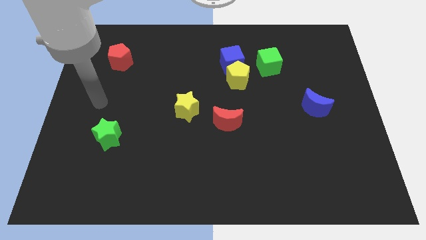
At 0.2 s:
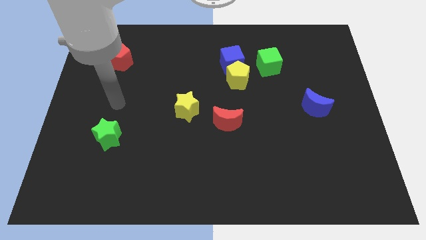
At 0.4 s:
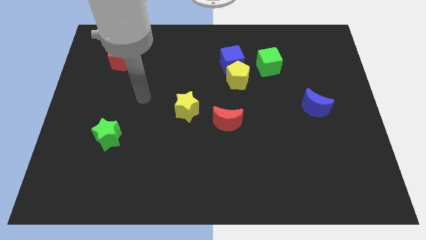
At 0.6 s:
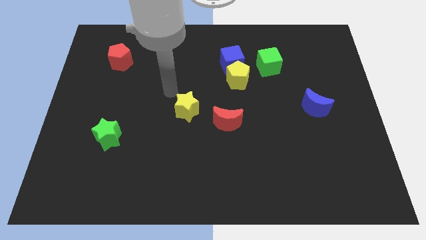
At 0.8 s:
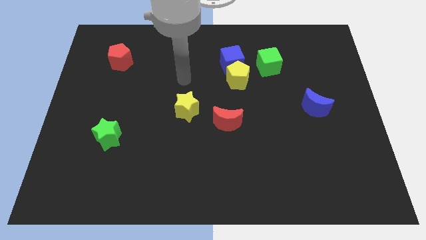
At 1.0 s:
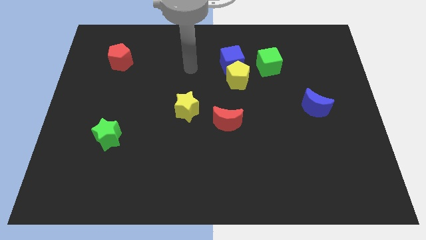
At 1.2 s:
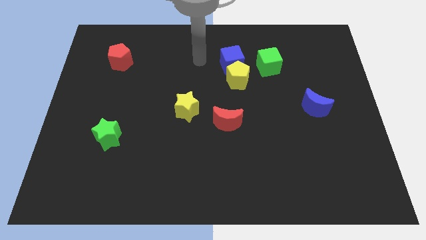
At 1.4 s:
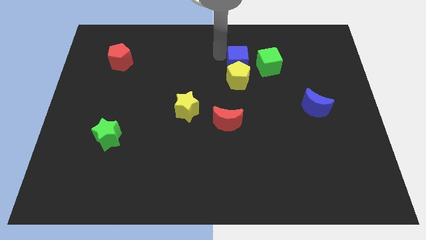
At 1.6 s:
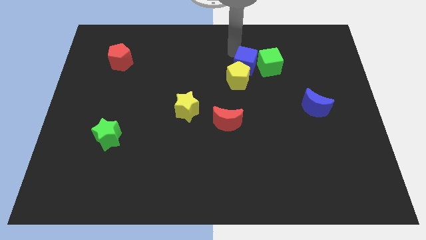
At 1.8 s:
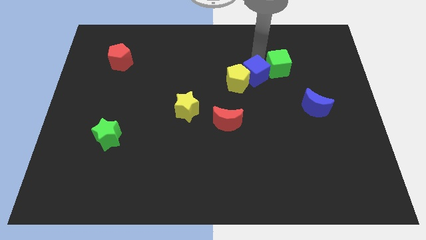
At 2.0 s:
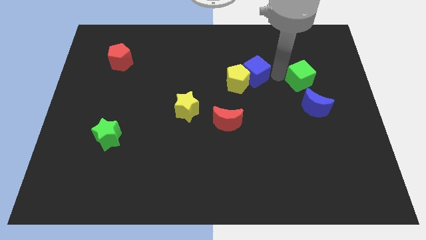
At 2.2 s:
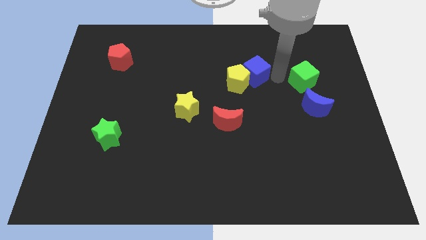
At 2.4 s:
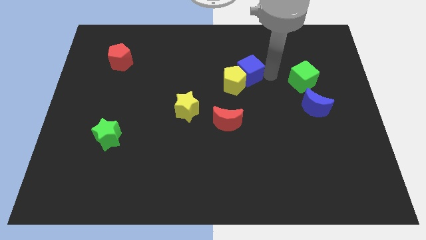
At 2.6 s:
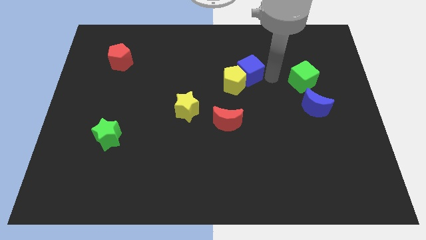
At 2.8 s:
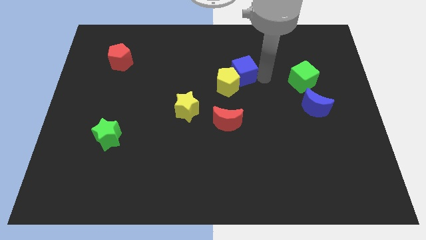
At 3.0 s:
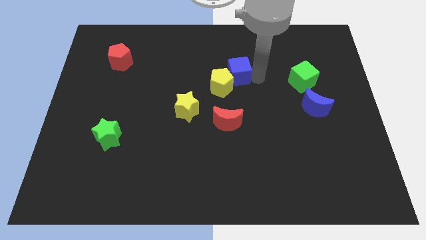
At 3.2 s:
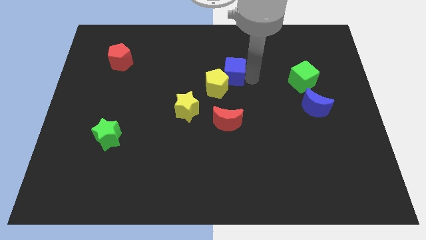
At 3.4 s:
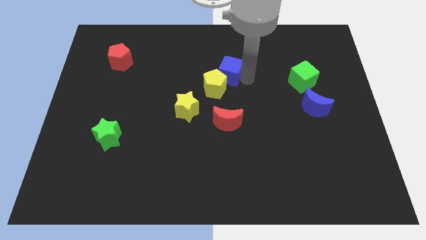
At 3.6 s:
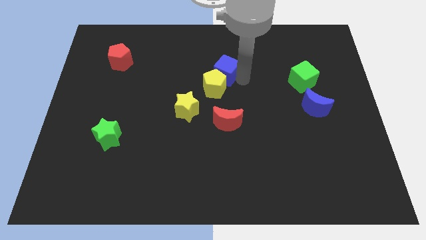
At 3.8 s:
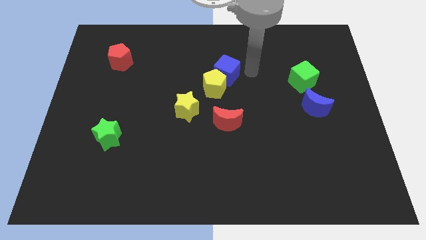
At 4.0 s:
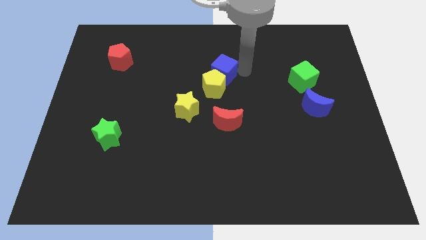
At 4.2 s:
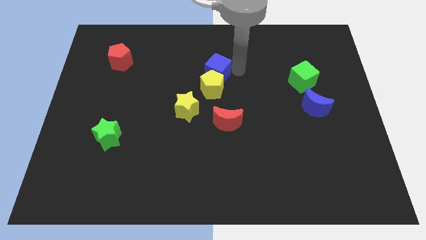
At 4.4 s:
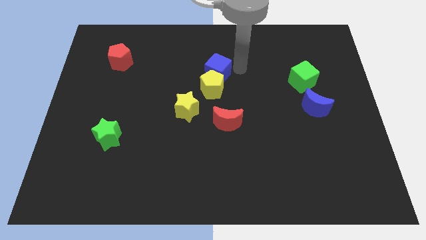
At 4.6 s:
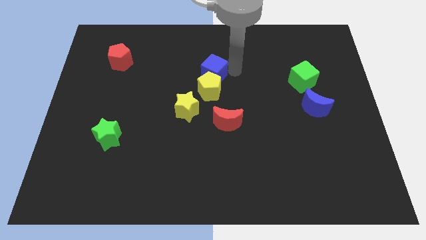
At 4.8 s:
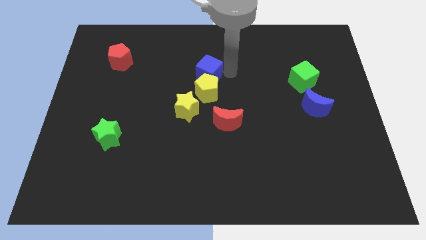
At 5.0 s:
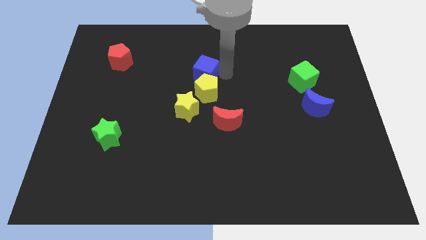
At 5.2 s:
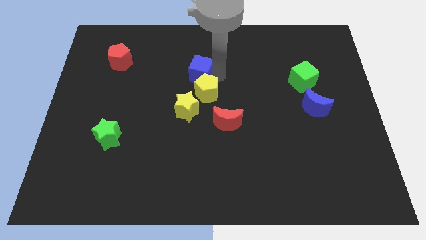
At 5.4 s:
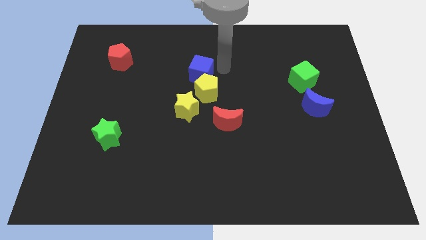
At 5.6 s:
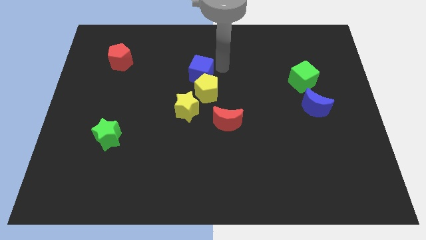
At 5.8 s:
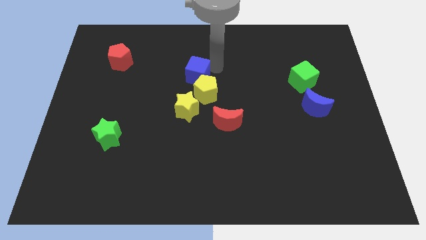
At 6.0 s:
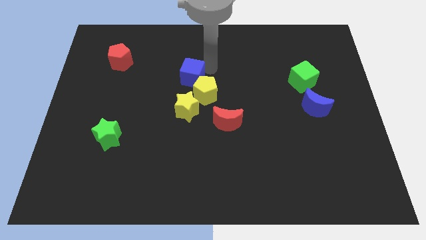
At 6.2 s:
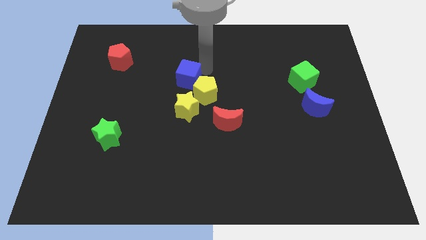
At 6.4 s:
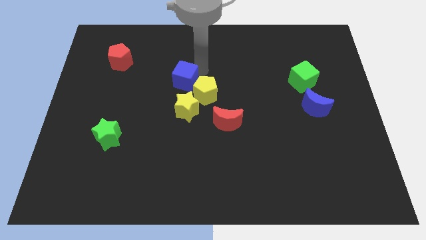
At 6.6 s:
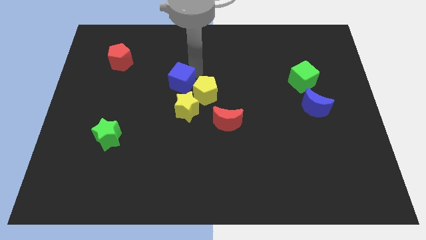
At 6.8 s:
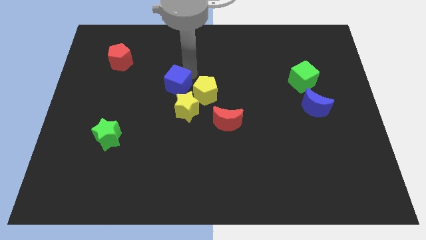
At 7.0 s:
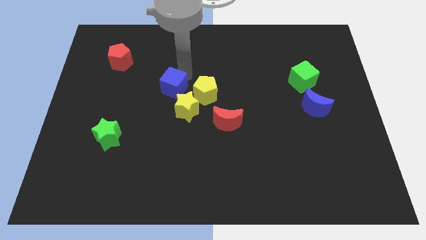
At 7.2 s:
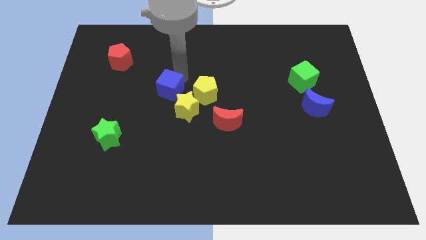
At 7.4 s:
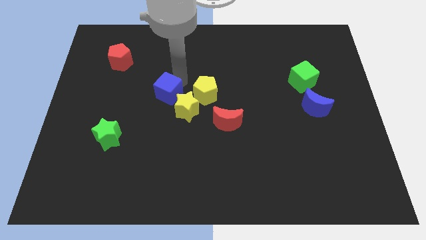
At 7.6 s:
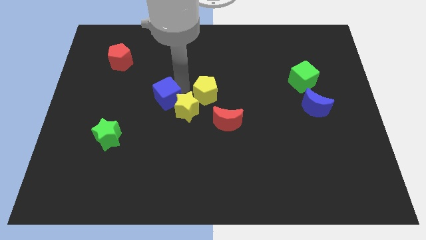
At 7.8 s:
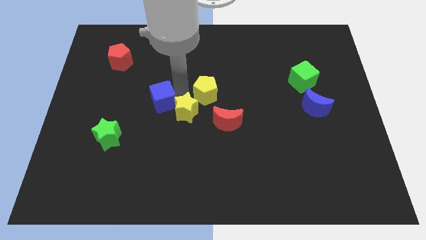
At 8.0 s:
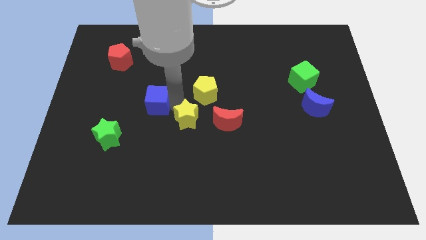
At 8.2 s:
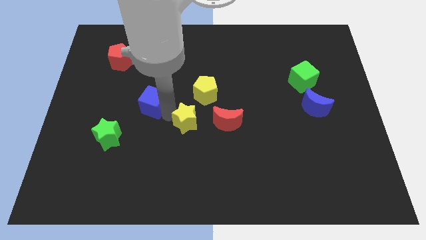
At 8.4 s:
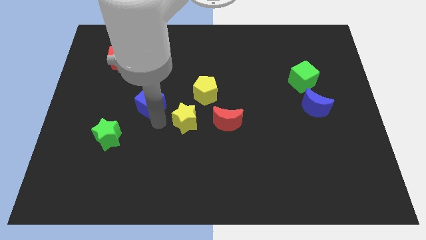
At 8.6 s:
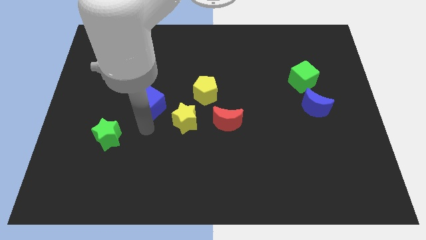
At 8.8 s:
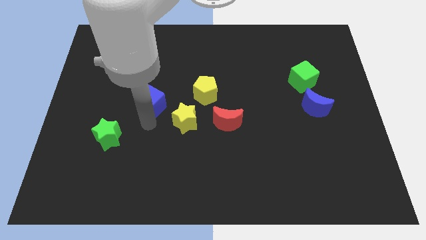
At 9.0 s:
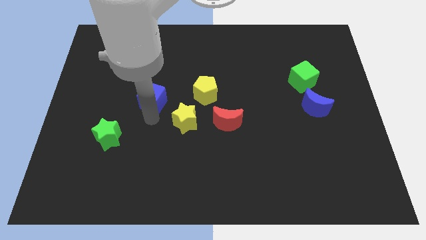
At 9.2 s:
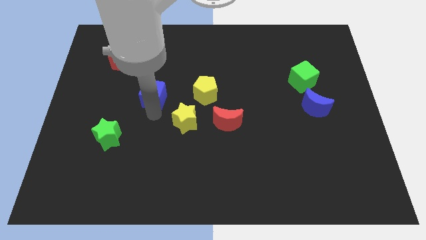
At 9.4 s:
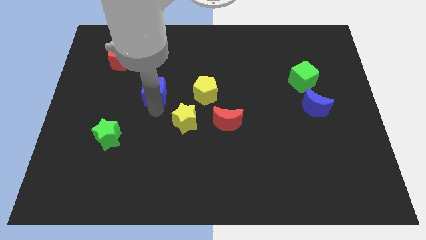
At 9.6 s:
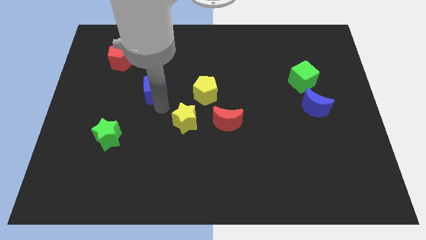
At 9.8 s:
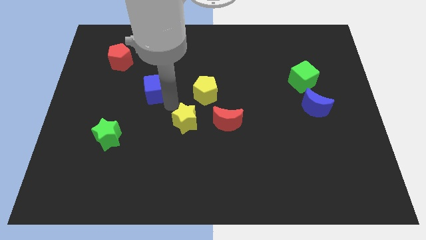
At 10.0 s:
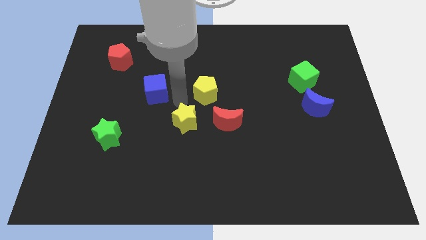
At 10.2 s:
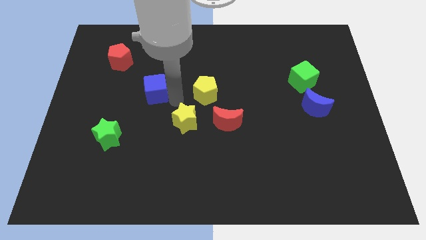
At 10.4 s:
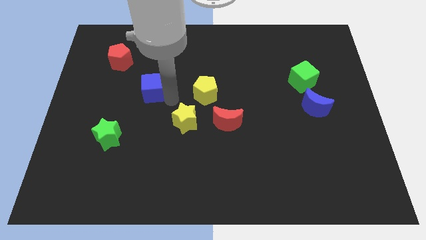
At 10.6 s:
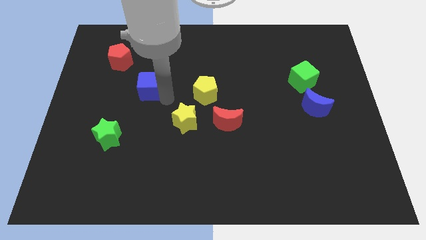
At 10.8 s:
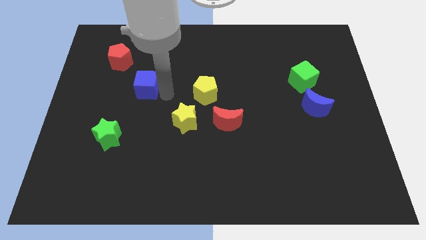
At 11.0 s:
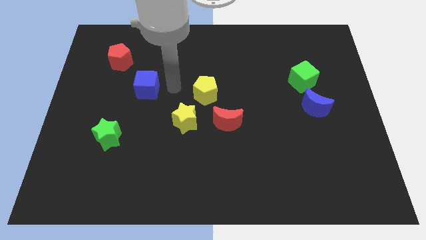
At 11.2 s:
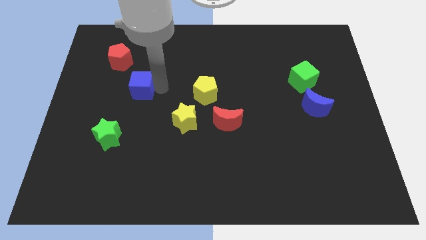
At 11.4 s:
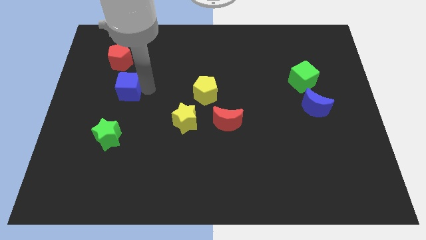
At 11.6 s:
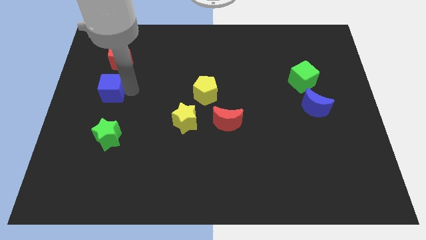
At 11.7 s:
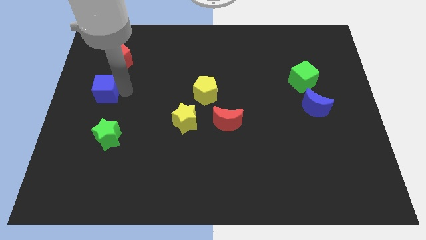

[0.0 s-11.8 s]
push the blue cube to the center left
